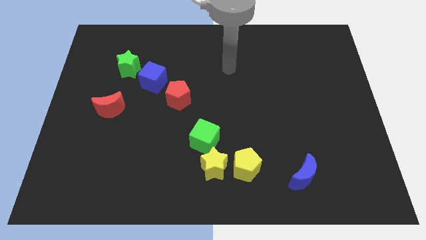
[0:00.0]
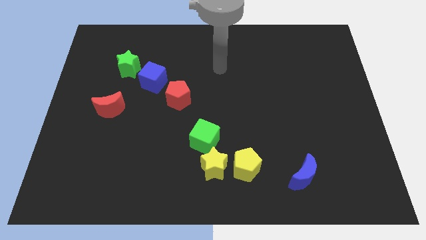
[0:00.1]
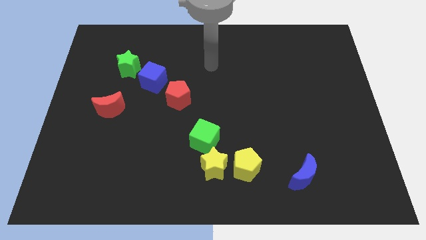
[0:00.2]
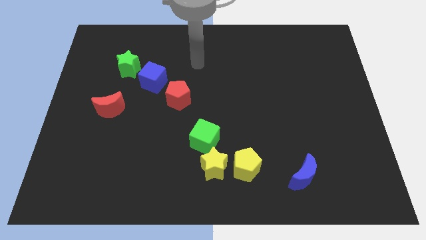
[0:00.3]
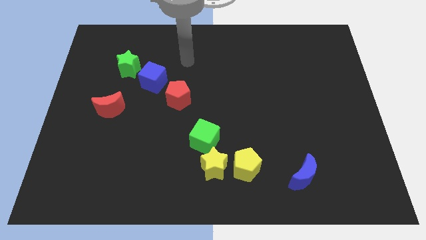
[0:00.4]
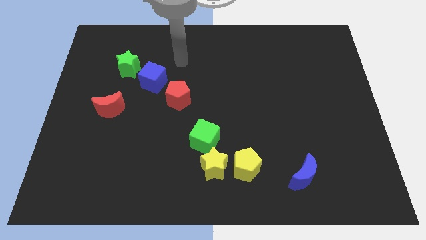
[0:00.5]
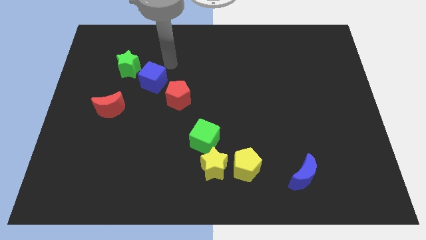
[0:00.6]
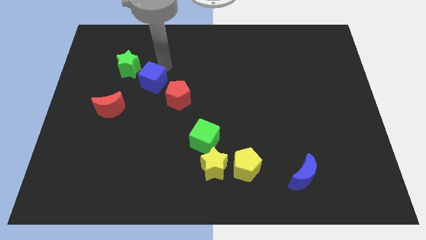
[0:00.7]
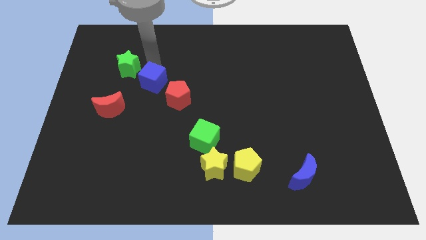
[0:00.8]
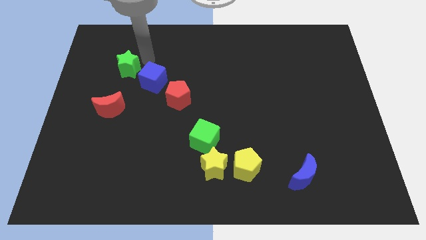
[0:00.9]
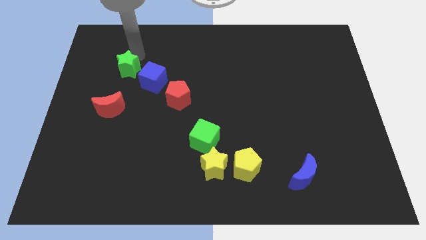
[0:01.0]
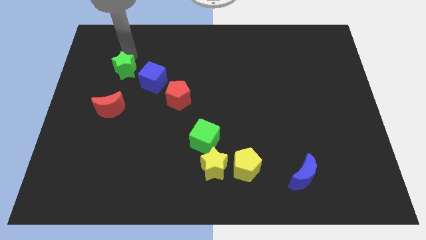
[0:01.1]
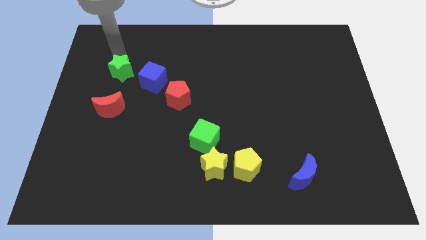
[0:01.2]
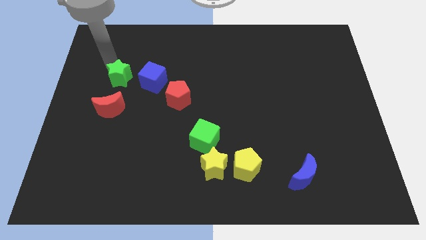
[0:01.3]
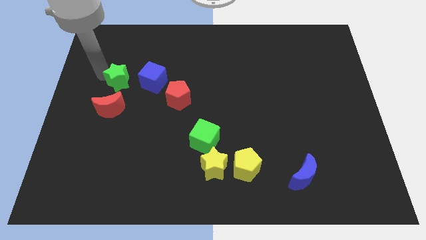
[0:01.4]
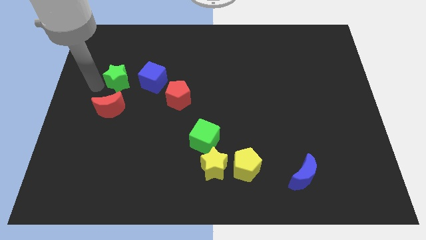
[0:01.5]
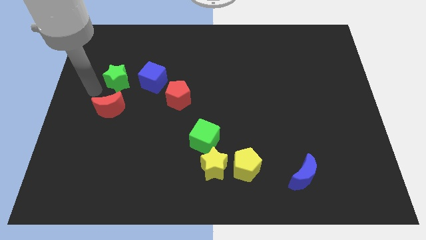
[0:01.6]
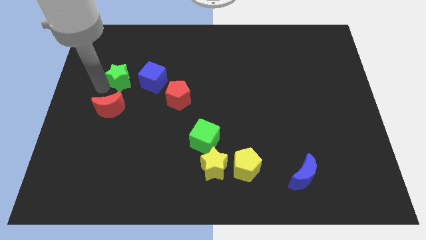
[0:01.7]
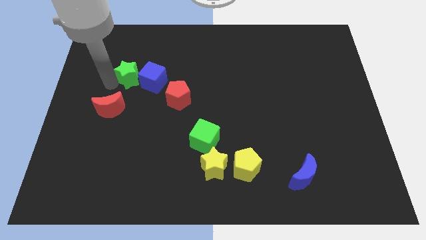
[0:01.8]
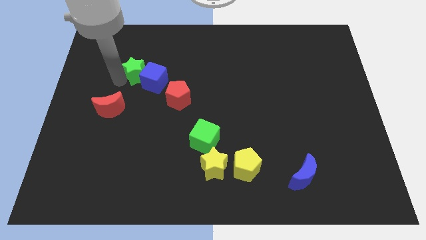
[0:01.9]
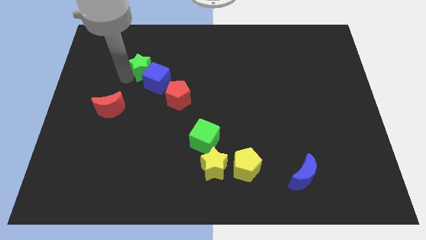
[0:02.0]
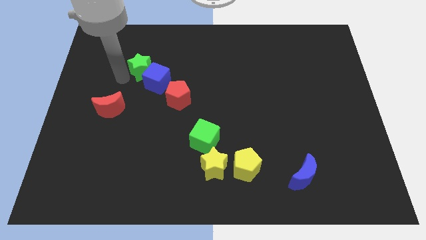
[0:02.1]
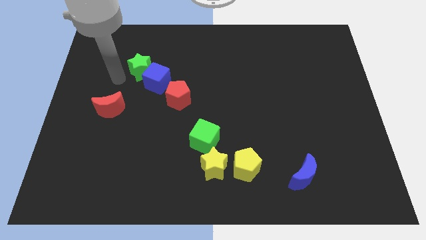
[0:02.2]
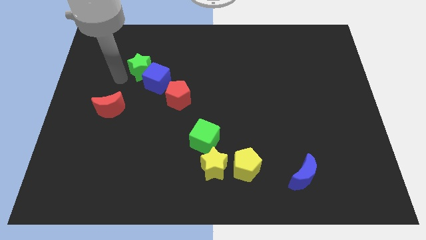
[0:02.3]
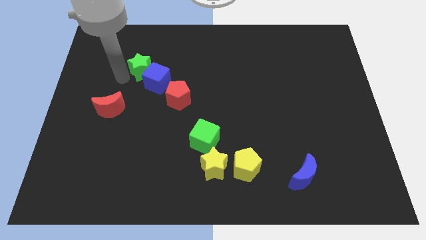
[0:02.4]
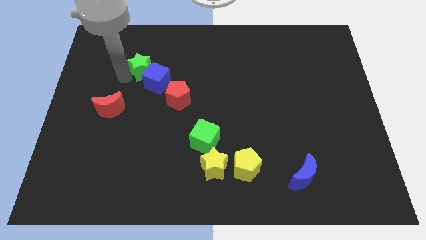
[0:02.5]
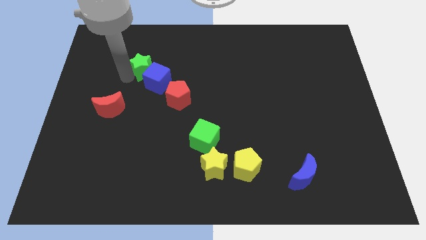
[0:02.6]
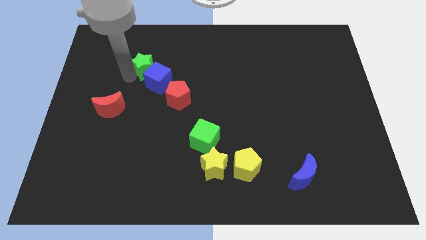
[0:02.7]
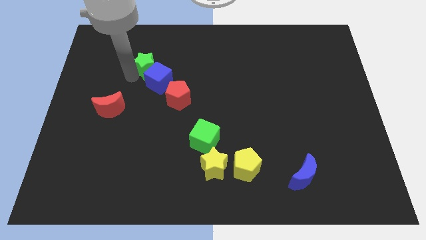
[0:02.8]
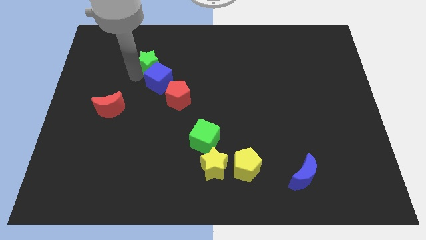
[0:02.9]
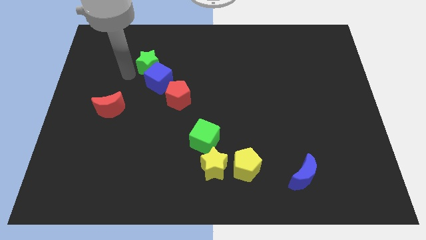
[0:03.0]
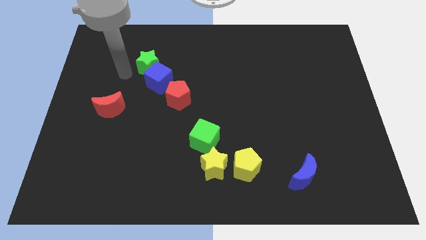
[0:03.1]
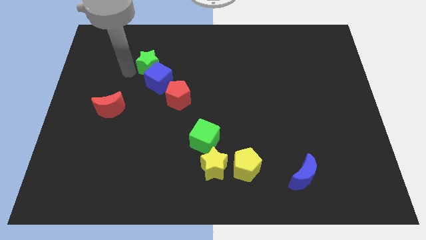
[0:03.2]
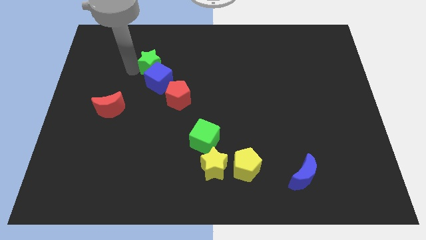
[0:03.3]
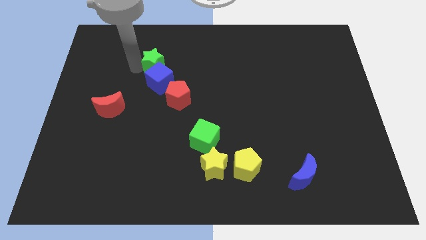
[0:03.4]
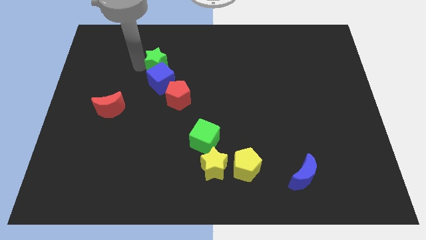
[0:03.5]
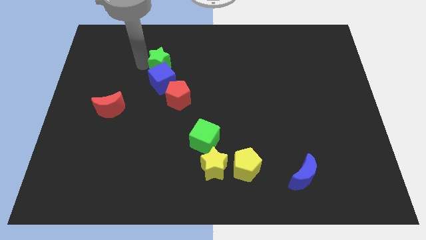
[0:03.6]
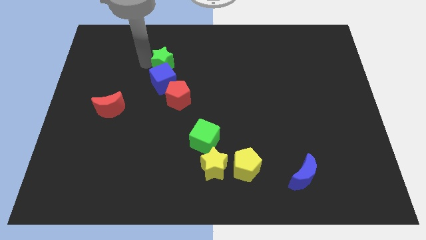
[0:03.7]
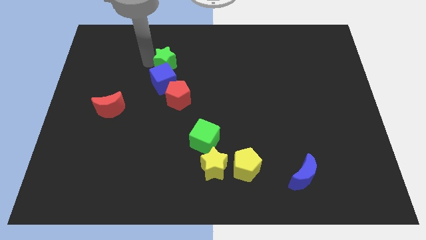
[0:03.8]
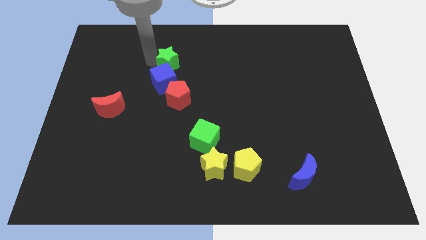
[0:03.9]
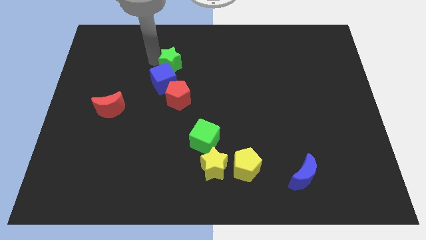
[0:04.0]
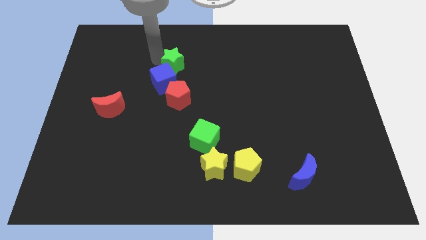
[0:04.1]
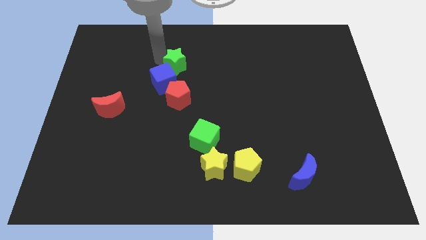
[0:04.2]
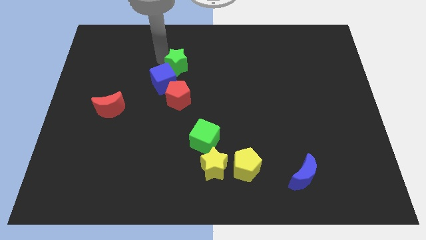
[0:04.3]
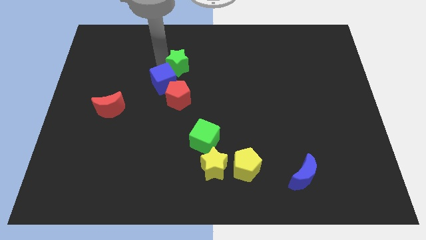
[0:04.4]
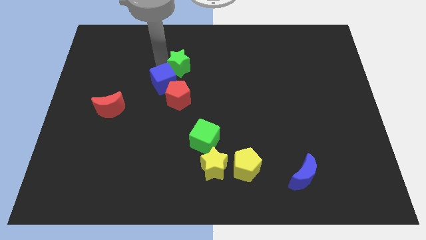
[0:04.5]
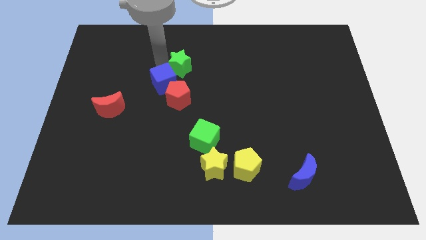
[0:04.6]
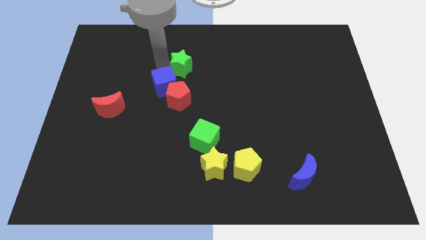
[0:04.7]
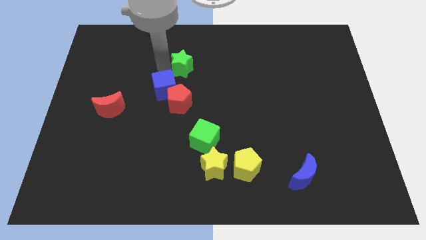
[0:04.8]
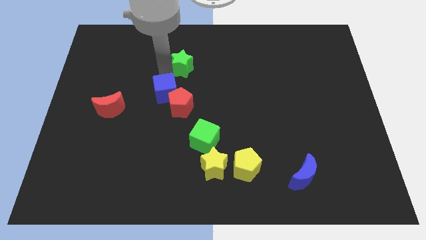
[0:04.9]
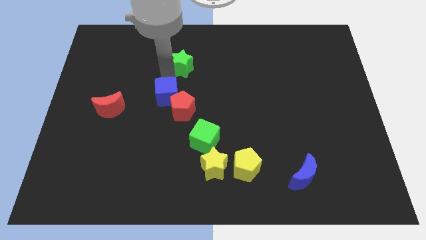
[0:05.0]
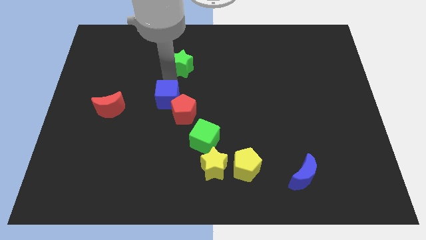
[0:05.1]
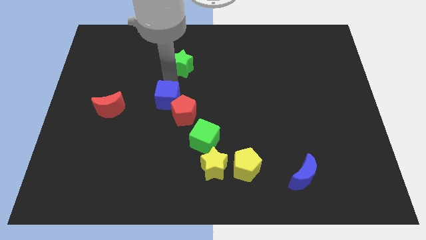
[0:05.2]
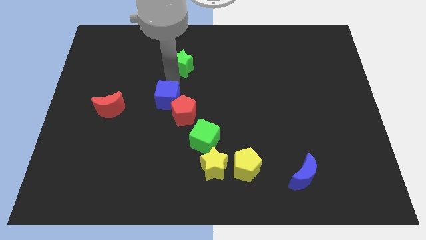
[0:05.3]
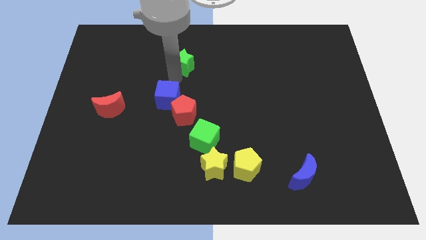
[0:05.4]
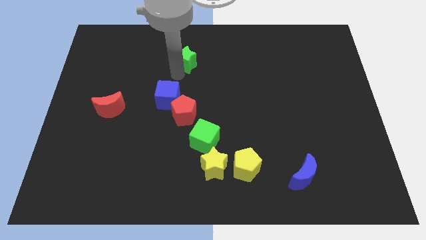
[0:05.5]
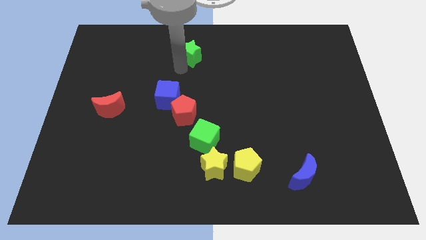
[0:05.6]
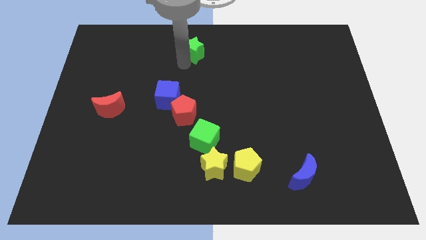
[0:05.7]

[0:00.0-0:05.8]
put the green star to the towards your base
